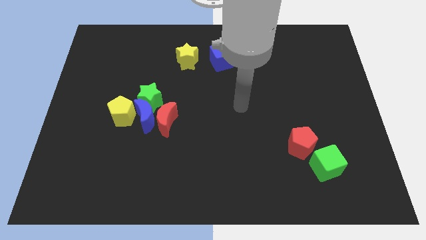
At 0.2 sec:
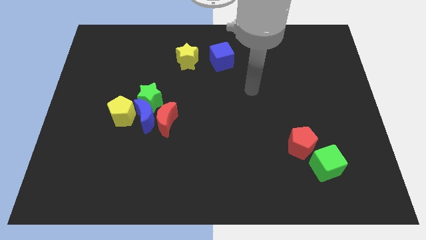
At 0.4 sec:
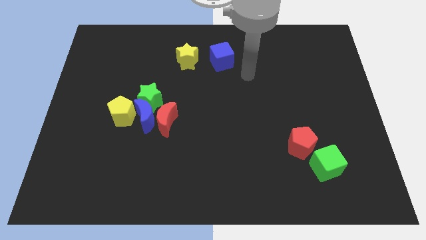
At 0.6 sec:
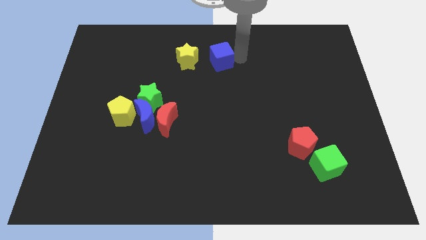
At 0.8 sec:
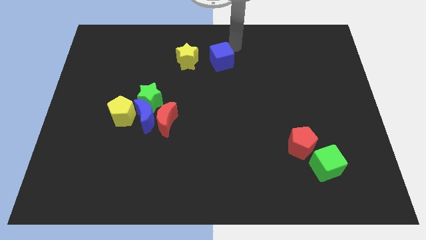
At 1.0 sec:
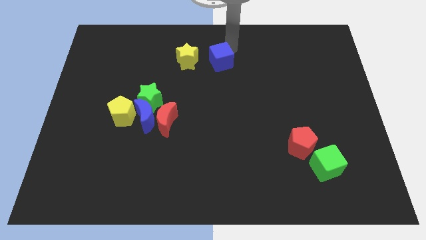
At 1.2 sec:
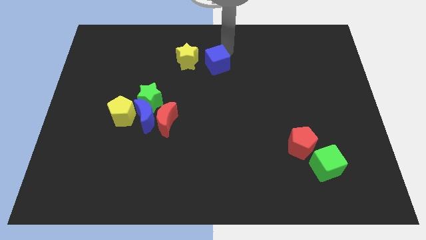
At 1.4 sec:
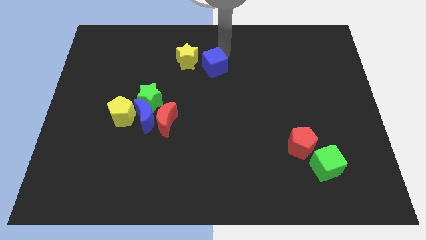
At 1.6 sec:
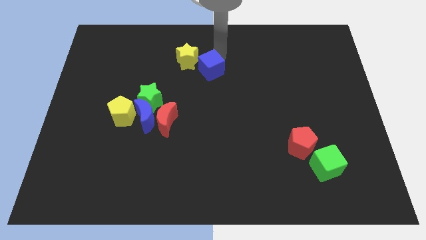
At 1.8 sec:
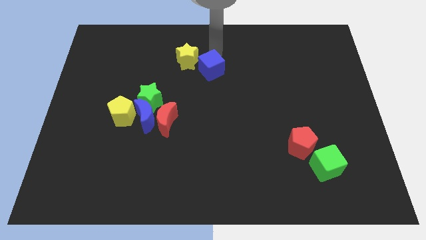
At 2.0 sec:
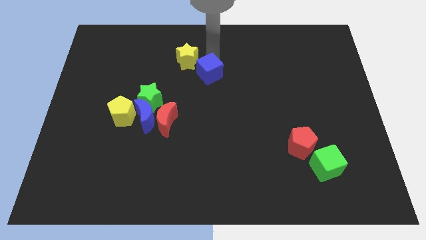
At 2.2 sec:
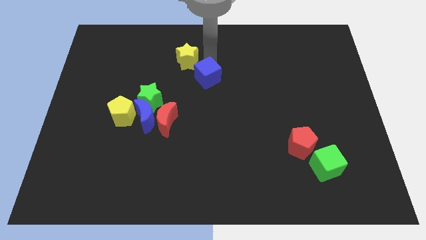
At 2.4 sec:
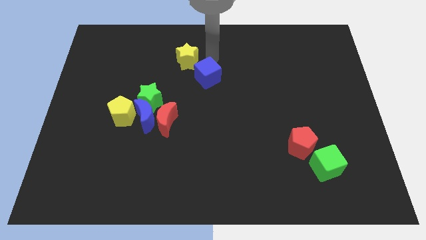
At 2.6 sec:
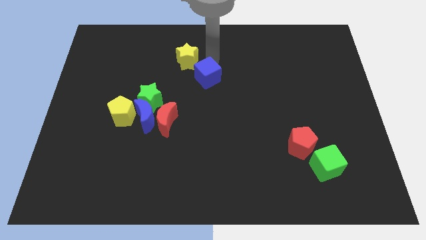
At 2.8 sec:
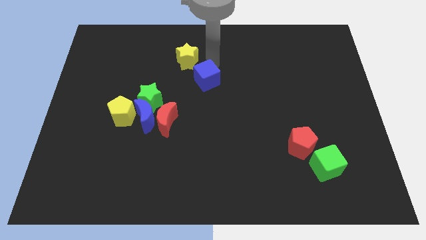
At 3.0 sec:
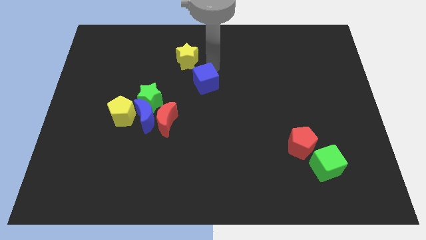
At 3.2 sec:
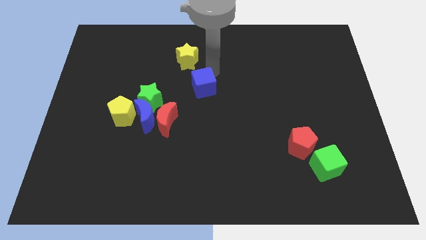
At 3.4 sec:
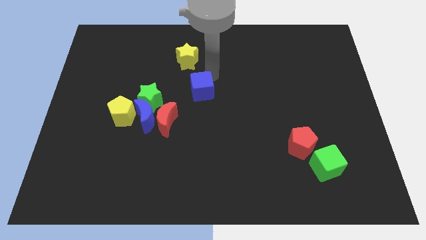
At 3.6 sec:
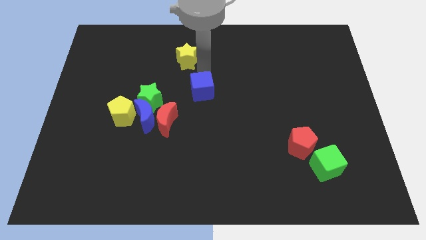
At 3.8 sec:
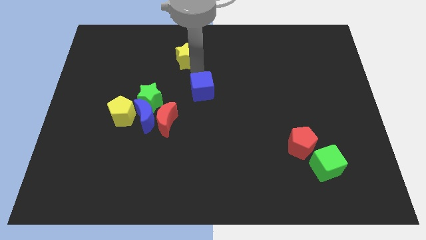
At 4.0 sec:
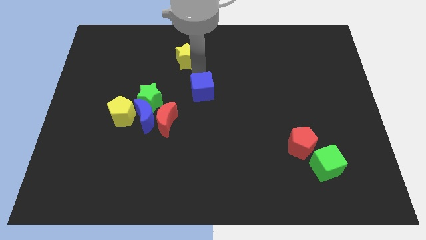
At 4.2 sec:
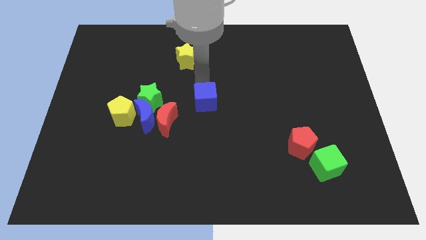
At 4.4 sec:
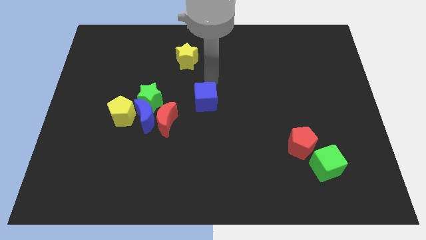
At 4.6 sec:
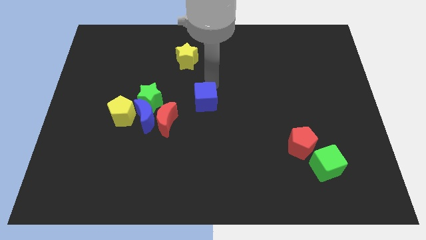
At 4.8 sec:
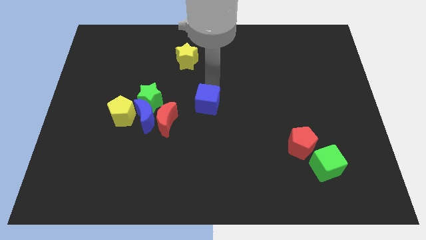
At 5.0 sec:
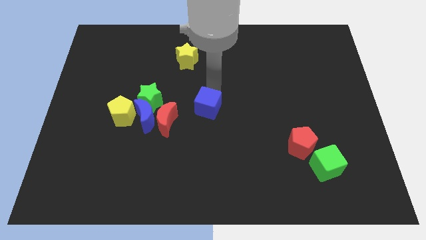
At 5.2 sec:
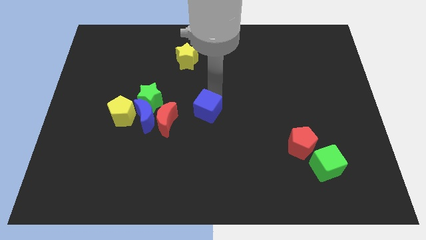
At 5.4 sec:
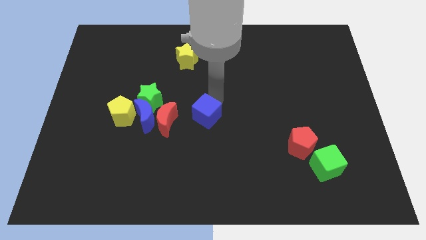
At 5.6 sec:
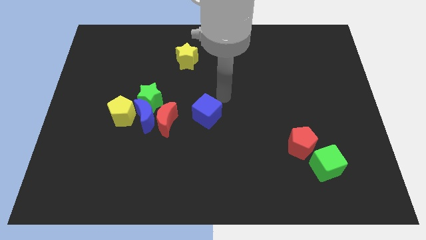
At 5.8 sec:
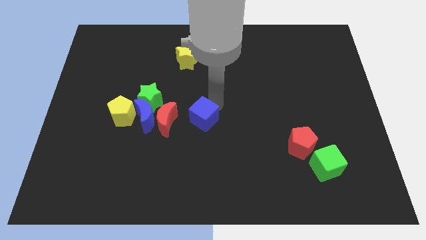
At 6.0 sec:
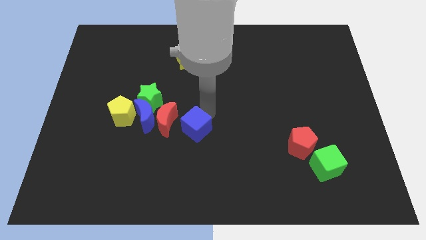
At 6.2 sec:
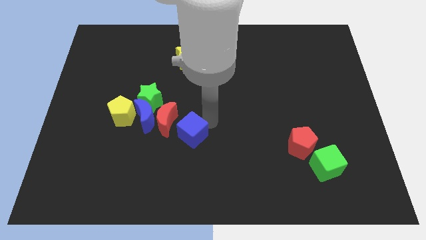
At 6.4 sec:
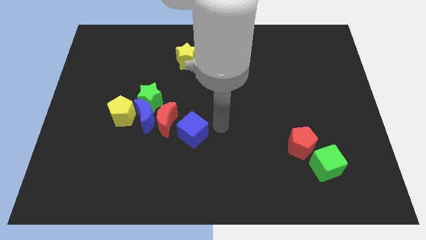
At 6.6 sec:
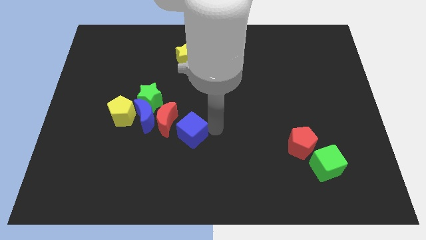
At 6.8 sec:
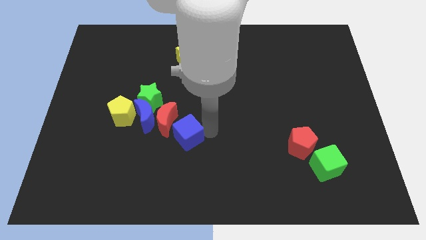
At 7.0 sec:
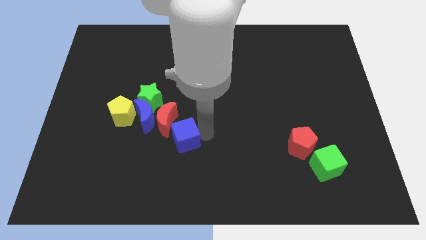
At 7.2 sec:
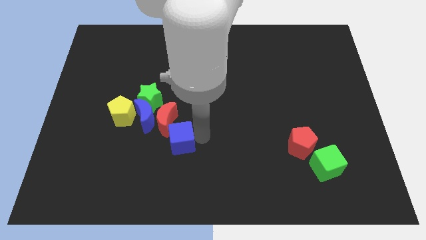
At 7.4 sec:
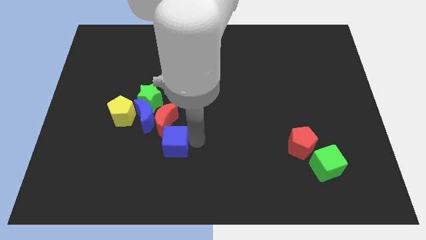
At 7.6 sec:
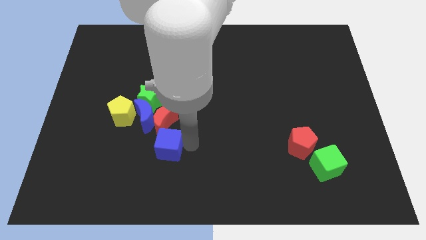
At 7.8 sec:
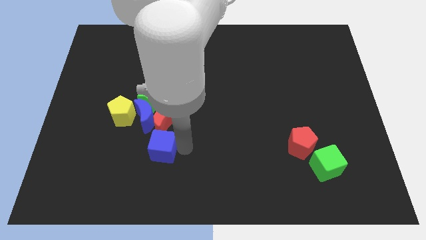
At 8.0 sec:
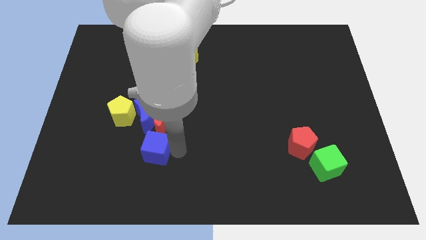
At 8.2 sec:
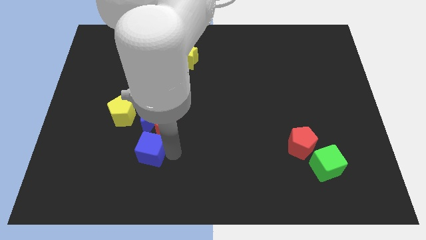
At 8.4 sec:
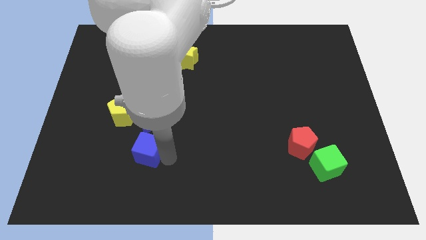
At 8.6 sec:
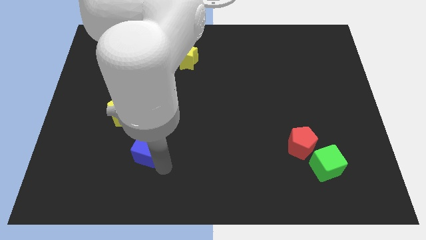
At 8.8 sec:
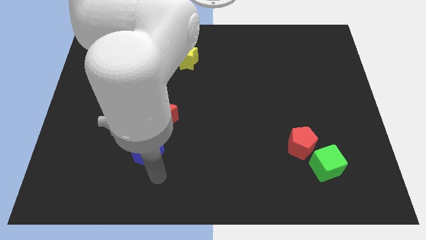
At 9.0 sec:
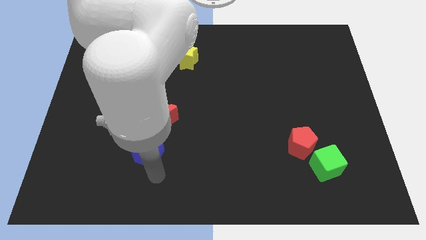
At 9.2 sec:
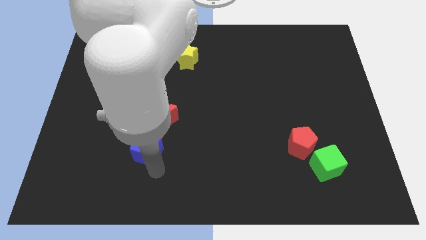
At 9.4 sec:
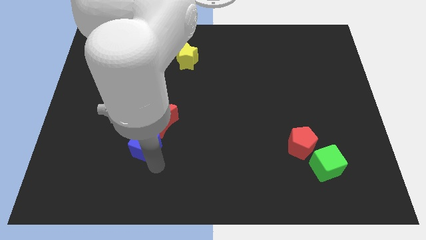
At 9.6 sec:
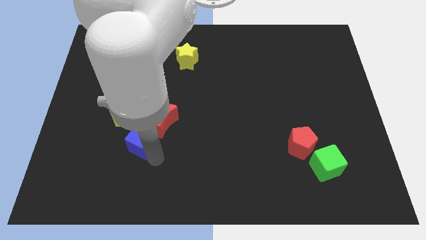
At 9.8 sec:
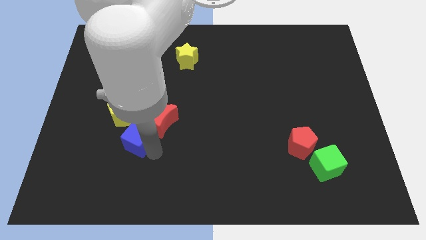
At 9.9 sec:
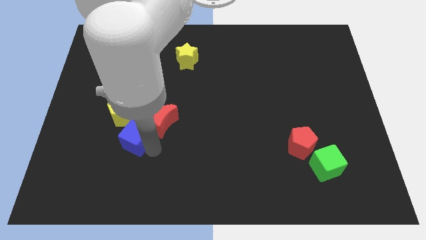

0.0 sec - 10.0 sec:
put the blue cube to the blue moon

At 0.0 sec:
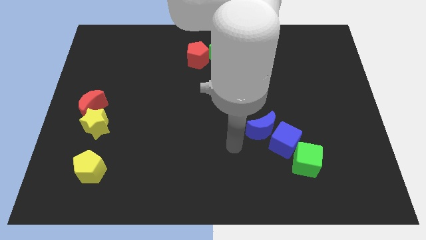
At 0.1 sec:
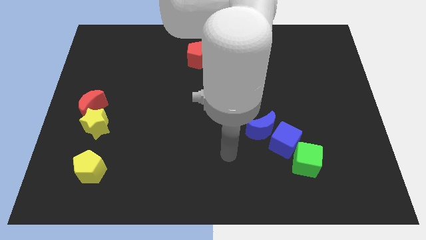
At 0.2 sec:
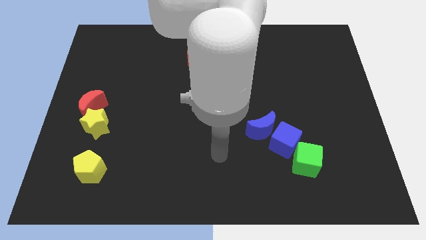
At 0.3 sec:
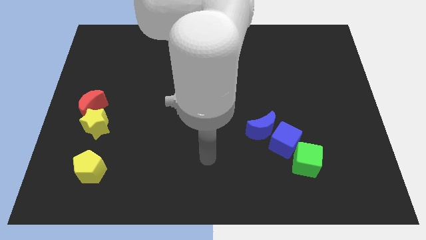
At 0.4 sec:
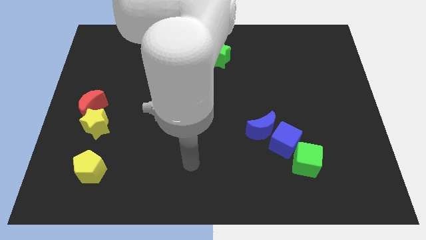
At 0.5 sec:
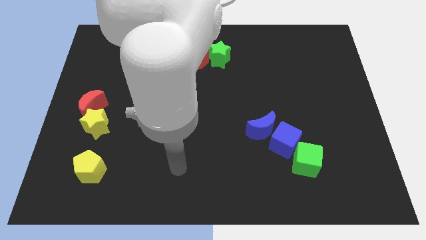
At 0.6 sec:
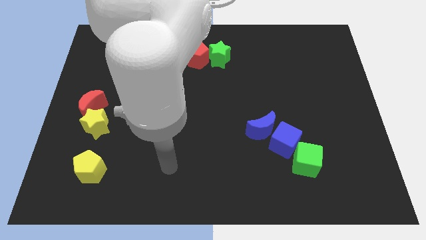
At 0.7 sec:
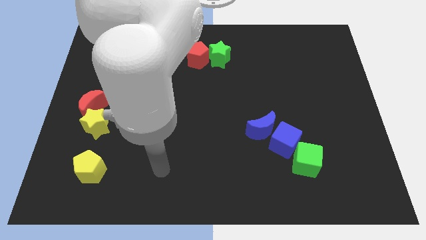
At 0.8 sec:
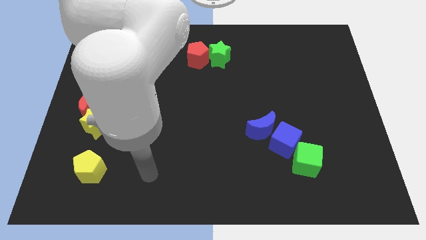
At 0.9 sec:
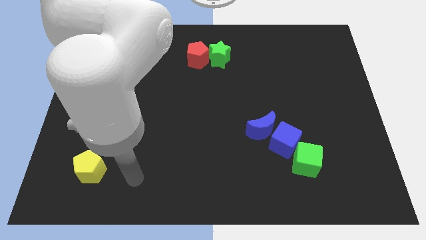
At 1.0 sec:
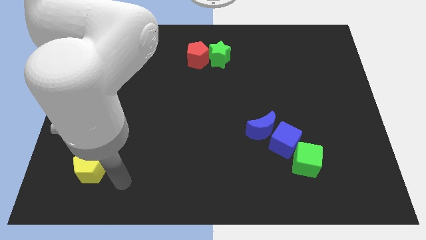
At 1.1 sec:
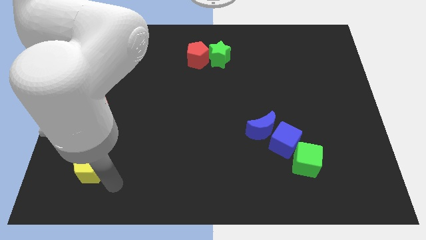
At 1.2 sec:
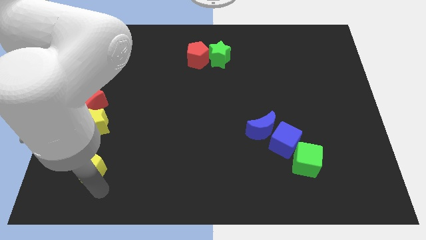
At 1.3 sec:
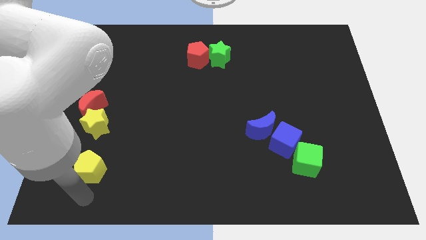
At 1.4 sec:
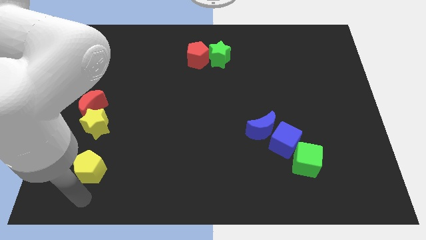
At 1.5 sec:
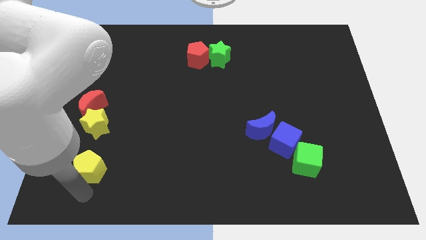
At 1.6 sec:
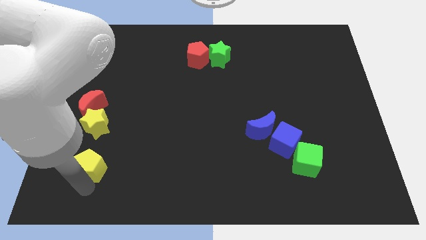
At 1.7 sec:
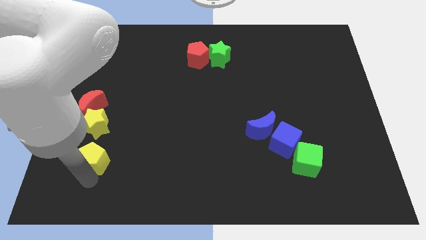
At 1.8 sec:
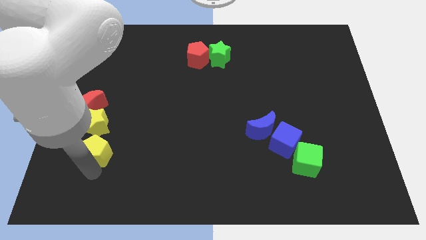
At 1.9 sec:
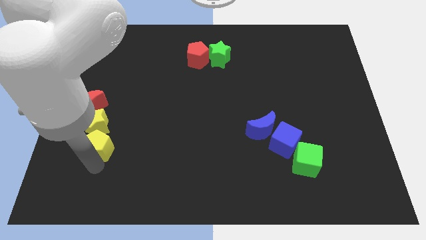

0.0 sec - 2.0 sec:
push the yellow pentagon towards the yellow star
